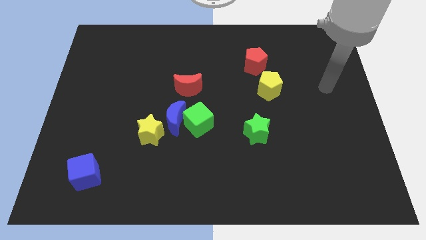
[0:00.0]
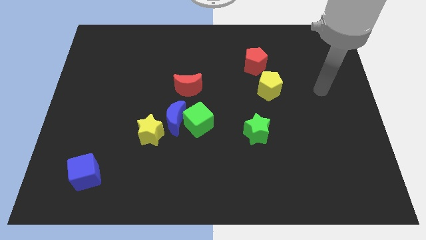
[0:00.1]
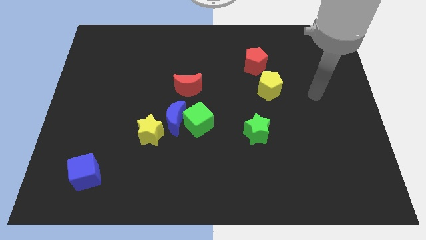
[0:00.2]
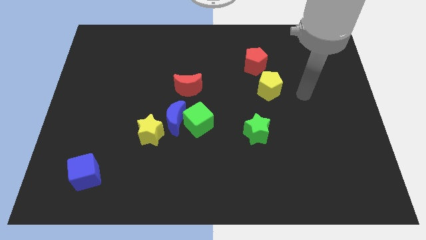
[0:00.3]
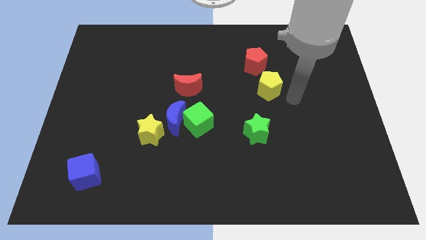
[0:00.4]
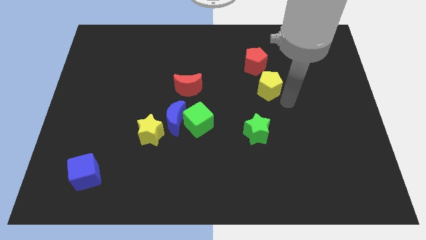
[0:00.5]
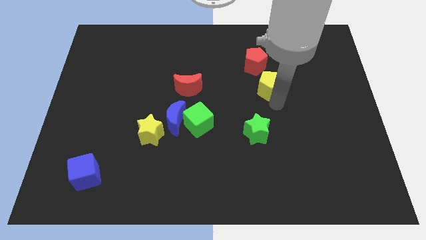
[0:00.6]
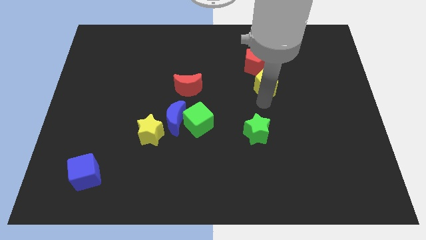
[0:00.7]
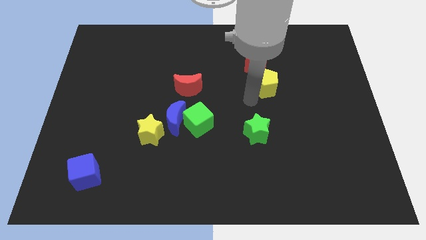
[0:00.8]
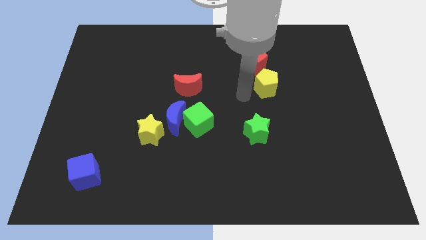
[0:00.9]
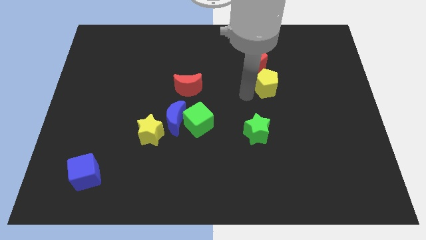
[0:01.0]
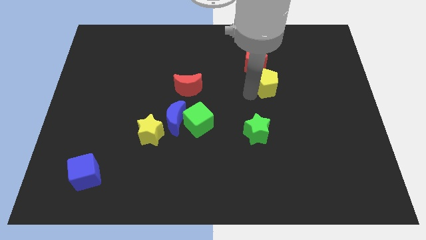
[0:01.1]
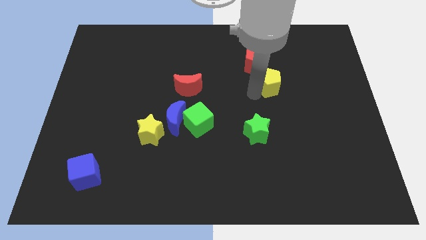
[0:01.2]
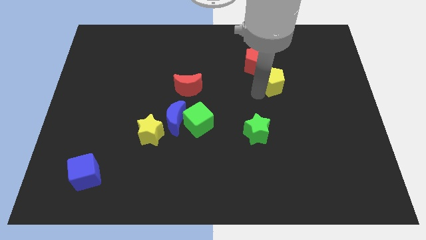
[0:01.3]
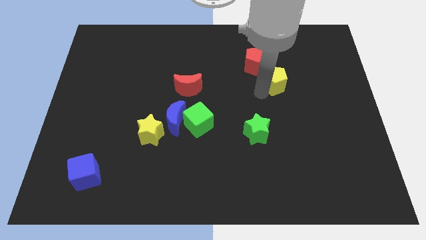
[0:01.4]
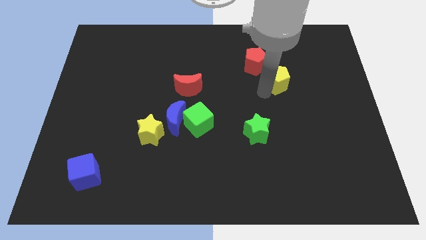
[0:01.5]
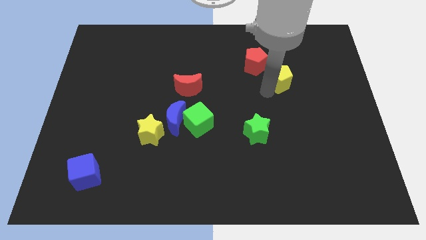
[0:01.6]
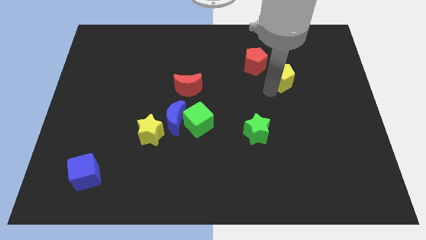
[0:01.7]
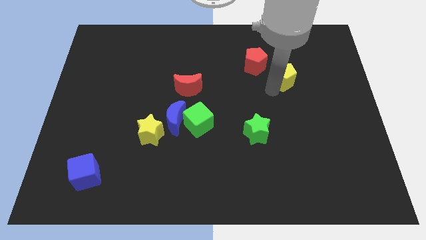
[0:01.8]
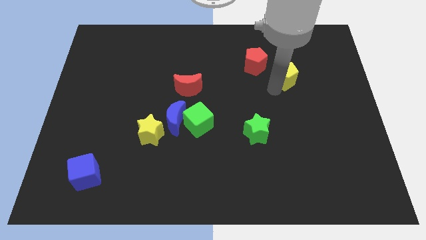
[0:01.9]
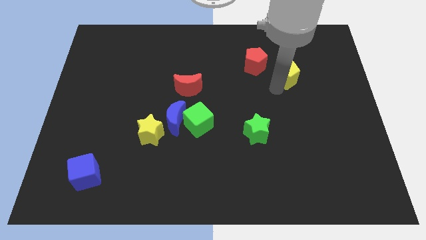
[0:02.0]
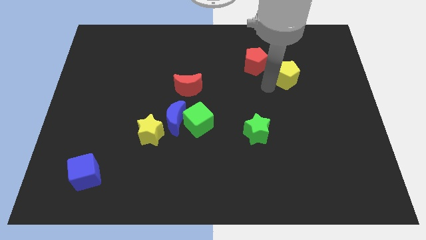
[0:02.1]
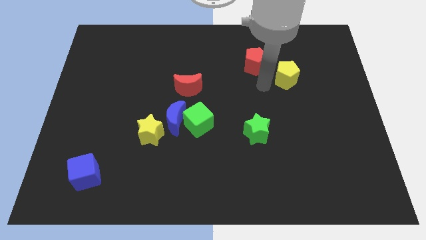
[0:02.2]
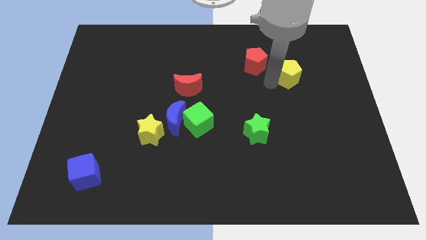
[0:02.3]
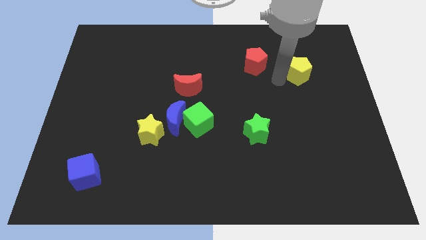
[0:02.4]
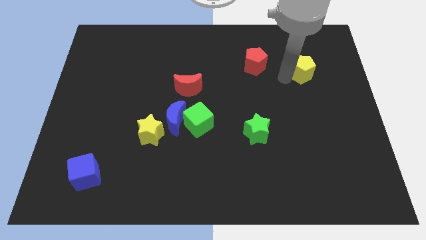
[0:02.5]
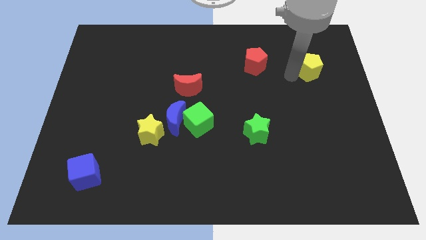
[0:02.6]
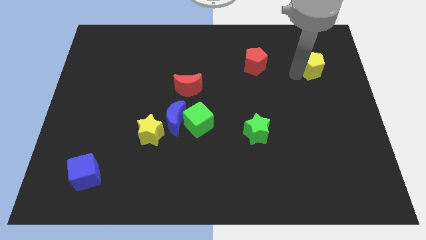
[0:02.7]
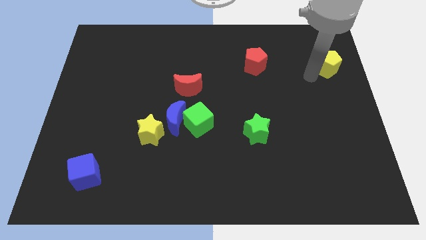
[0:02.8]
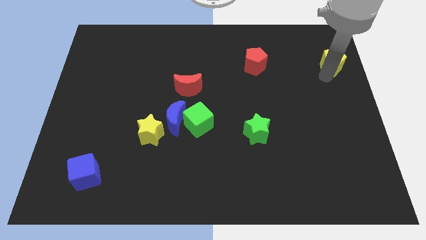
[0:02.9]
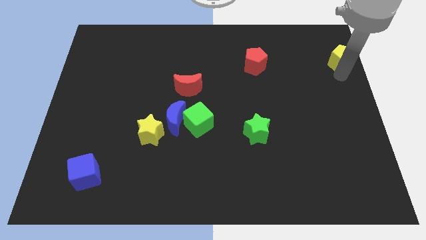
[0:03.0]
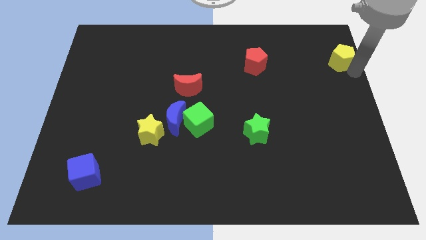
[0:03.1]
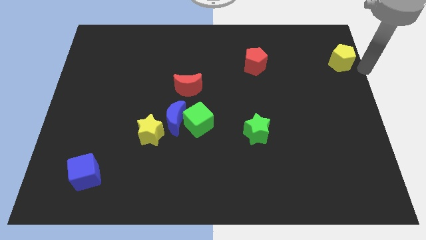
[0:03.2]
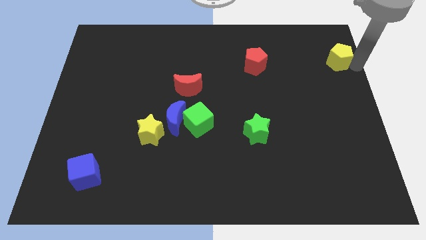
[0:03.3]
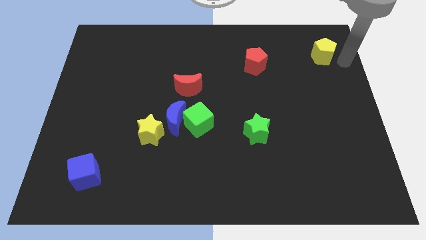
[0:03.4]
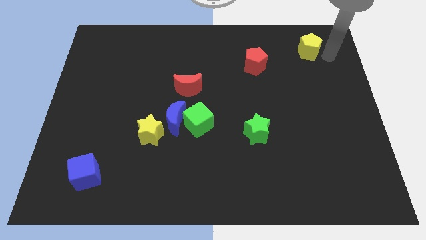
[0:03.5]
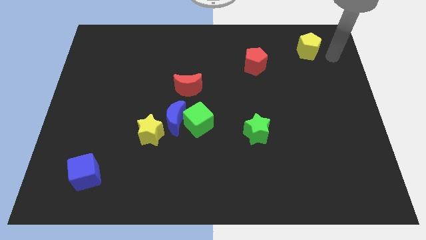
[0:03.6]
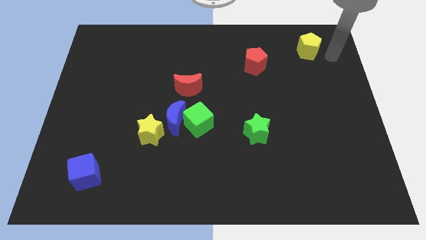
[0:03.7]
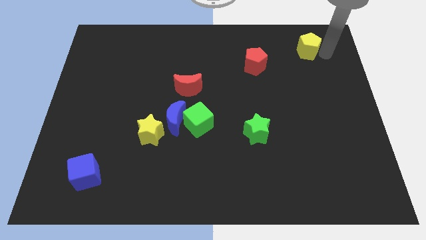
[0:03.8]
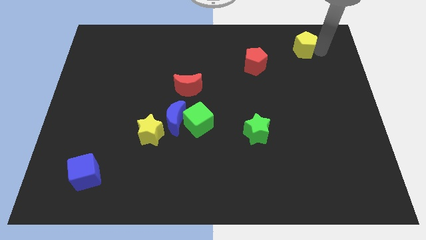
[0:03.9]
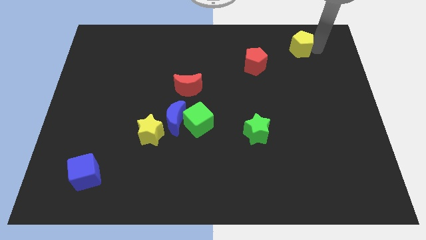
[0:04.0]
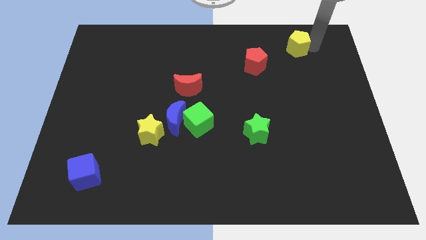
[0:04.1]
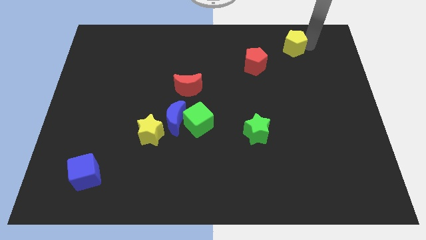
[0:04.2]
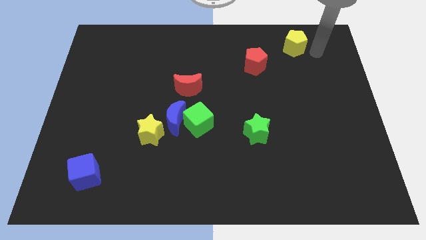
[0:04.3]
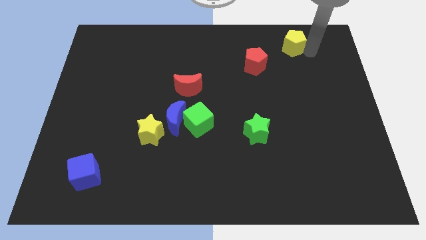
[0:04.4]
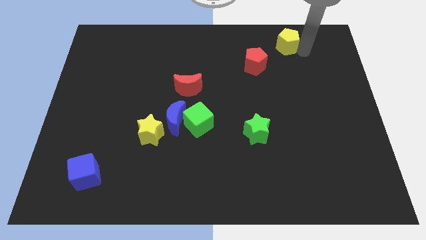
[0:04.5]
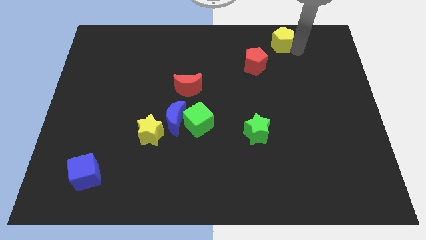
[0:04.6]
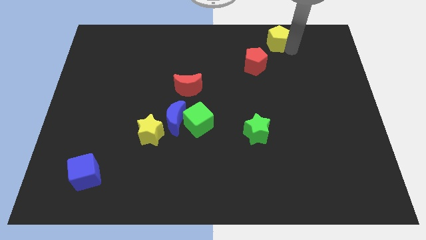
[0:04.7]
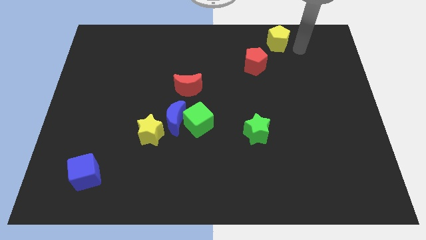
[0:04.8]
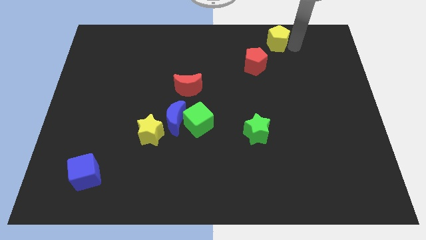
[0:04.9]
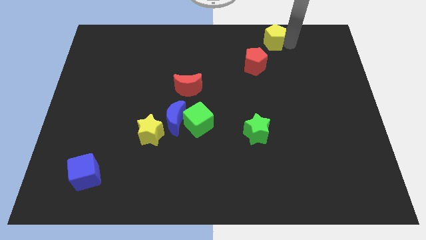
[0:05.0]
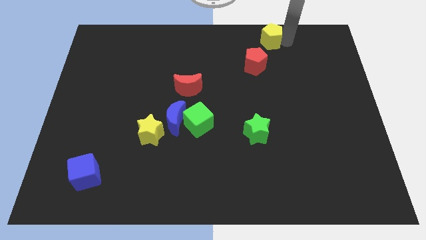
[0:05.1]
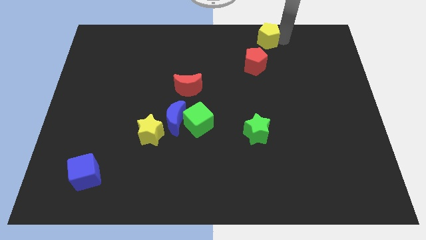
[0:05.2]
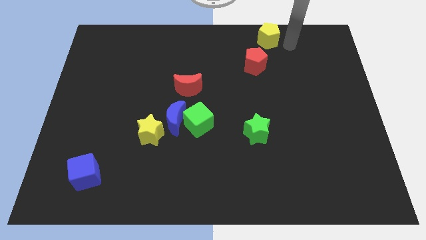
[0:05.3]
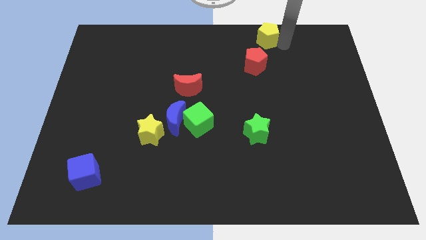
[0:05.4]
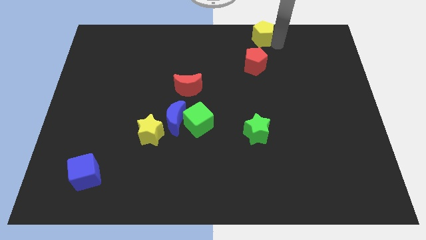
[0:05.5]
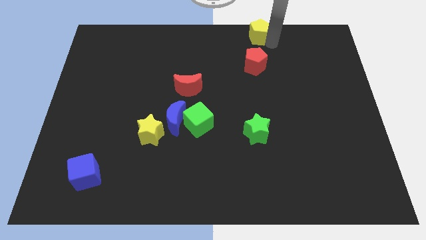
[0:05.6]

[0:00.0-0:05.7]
put the yellow pentagon to the top

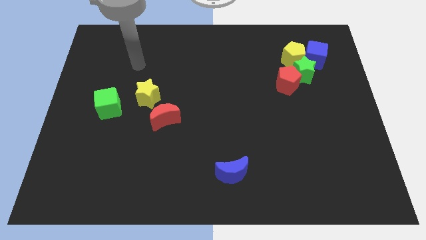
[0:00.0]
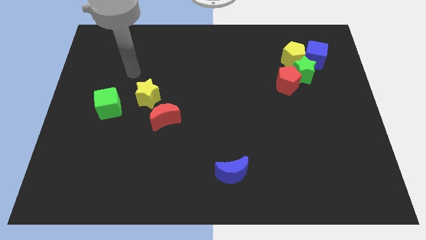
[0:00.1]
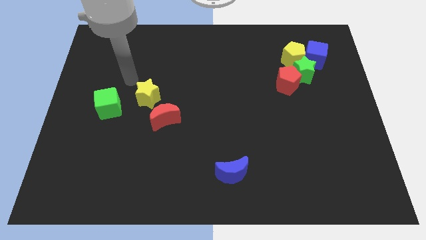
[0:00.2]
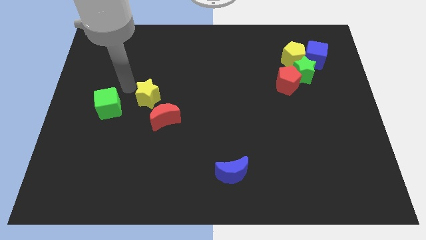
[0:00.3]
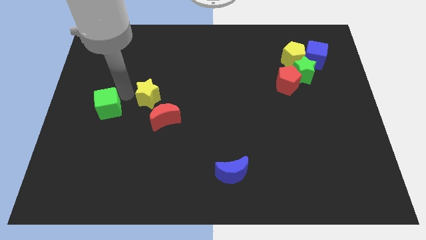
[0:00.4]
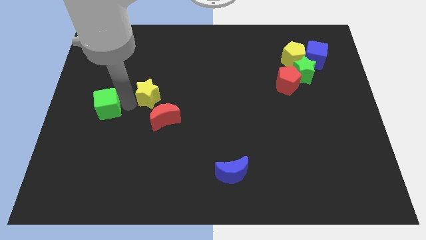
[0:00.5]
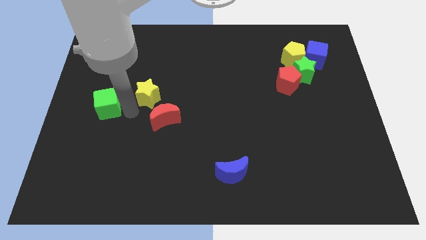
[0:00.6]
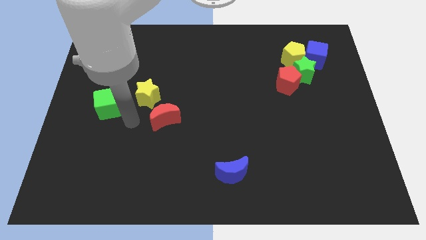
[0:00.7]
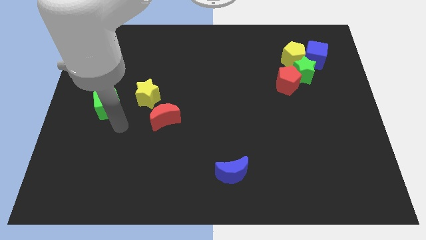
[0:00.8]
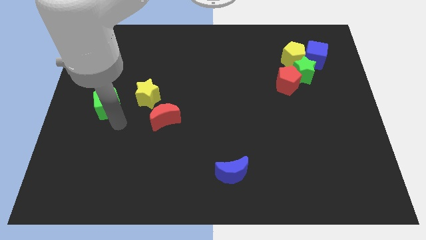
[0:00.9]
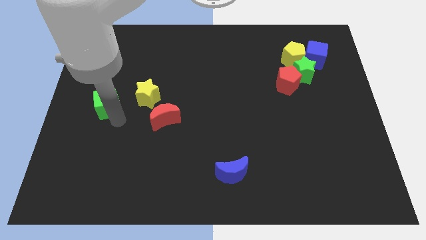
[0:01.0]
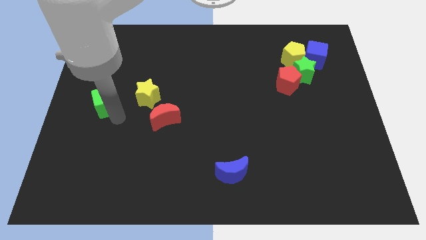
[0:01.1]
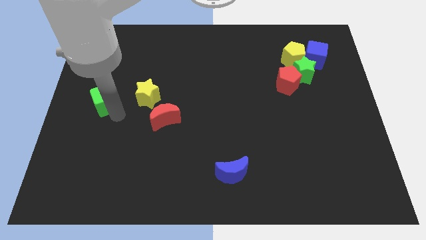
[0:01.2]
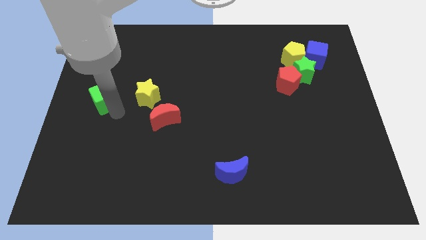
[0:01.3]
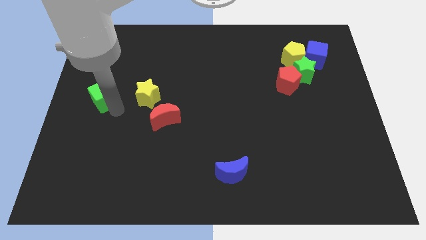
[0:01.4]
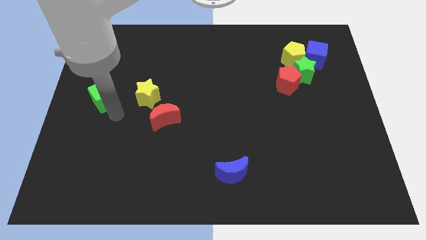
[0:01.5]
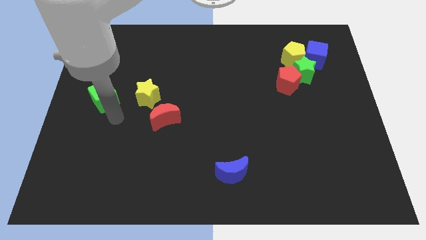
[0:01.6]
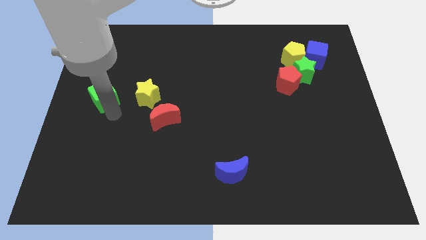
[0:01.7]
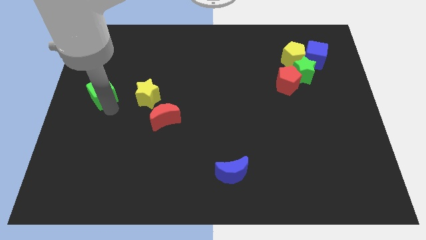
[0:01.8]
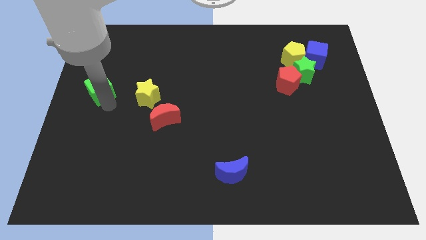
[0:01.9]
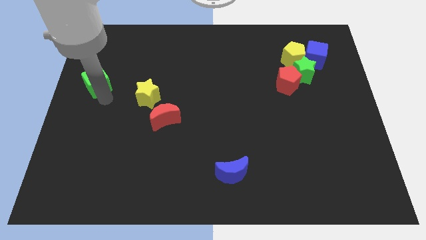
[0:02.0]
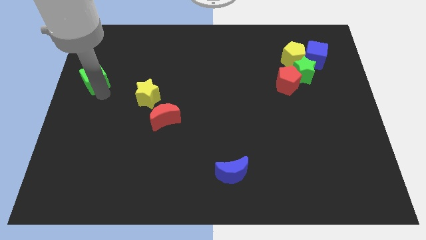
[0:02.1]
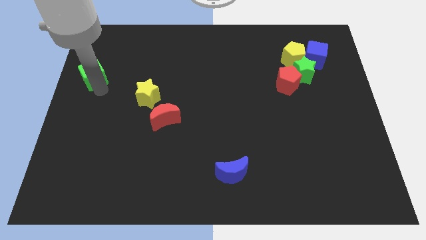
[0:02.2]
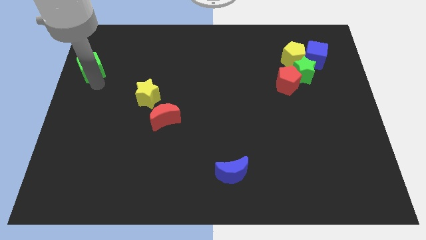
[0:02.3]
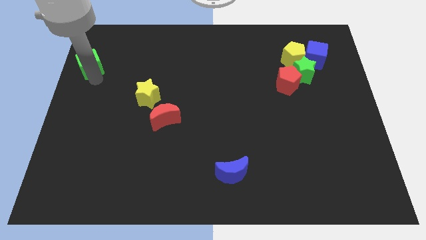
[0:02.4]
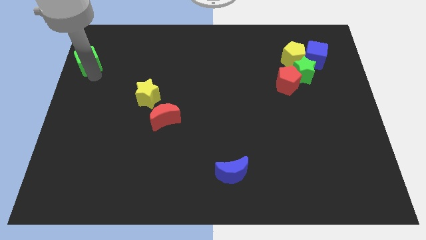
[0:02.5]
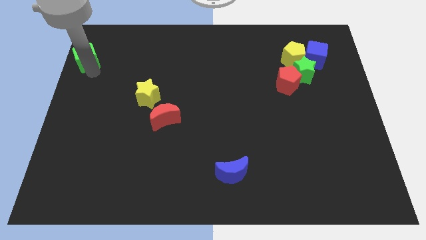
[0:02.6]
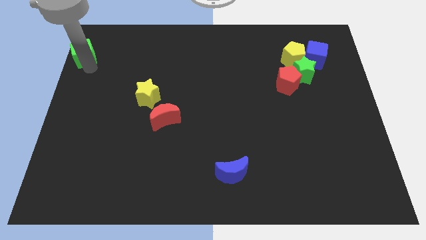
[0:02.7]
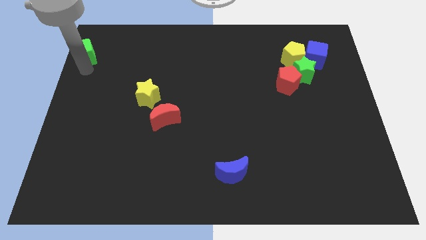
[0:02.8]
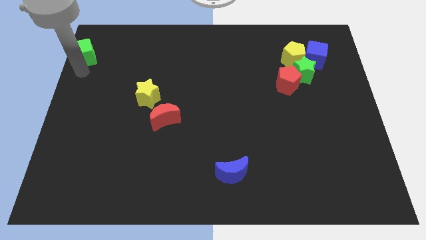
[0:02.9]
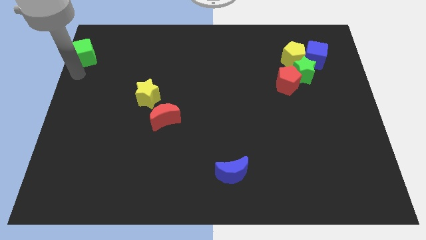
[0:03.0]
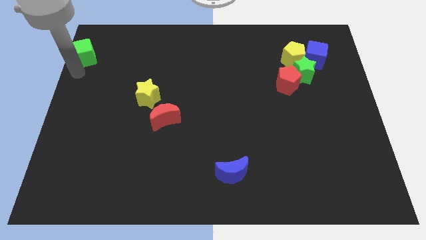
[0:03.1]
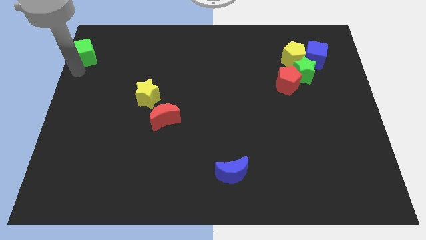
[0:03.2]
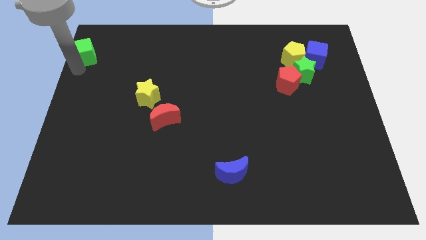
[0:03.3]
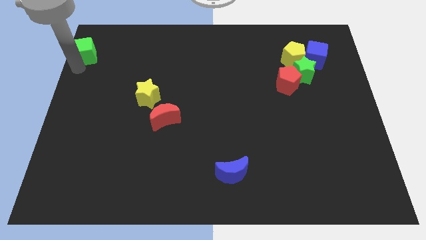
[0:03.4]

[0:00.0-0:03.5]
slide the green cube to the top left
